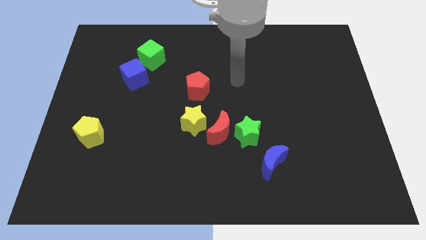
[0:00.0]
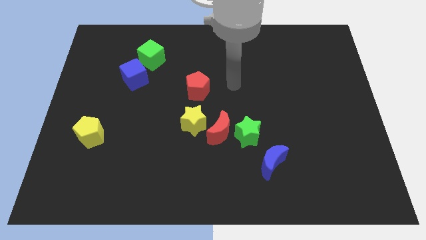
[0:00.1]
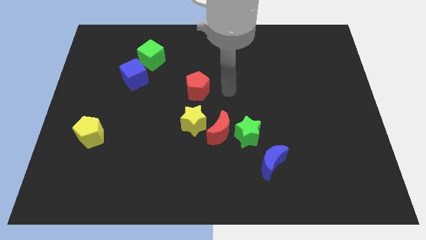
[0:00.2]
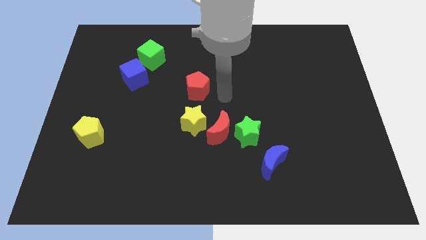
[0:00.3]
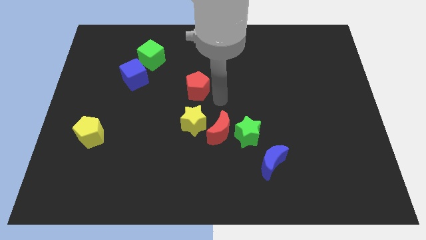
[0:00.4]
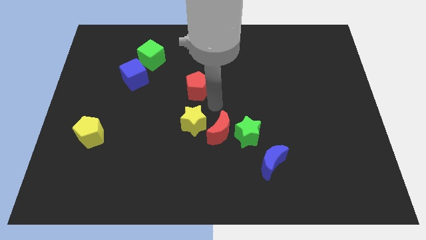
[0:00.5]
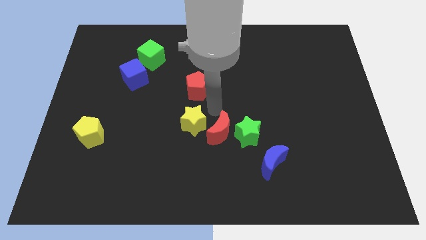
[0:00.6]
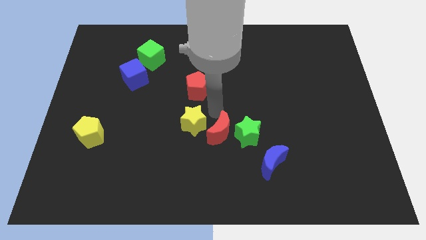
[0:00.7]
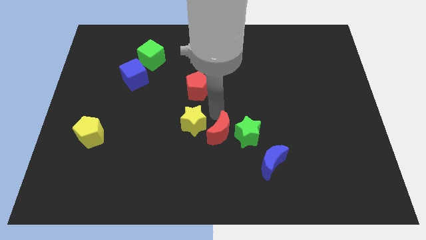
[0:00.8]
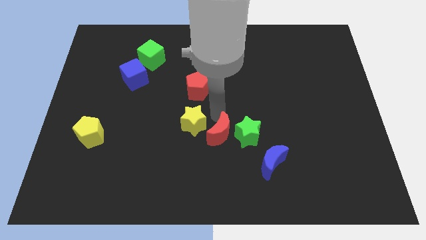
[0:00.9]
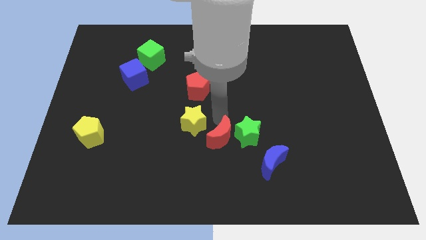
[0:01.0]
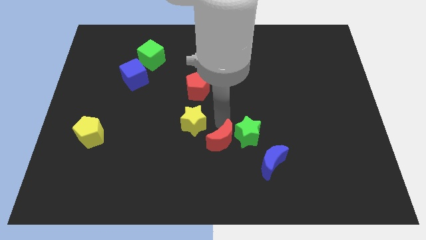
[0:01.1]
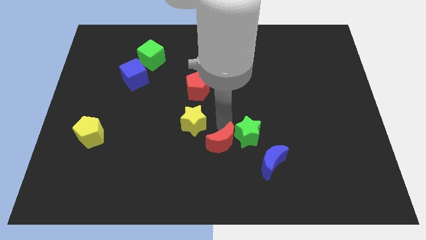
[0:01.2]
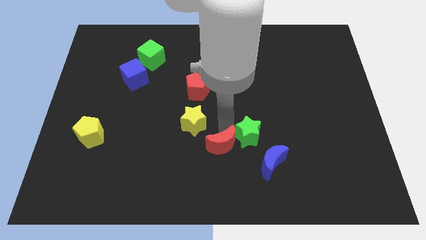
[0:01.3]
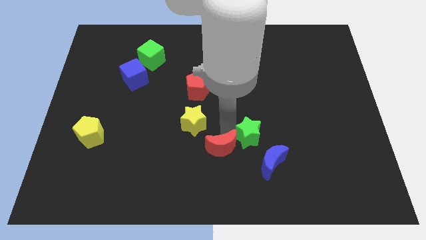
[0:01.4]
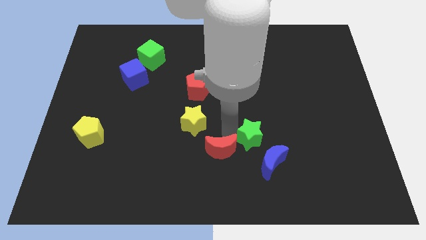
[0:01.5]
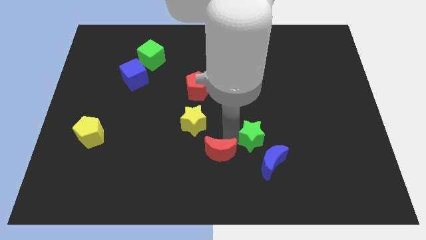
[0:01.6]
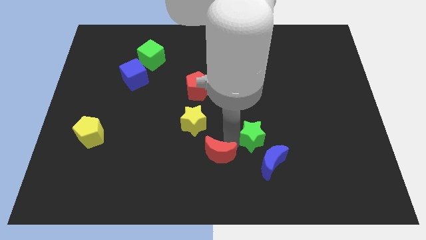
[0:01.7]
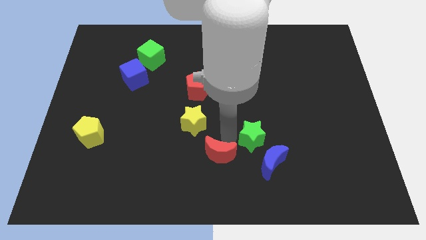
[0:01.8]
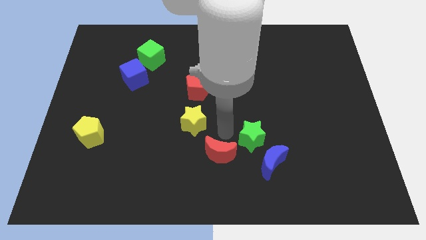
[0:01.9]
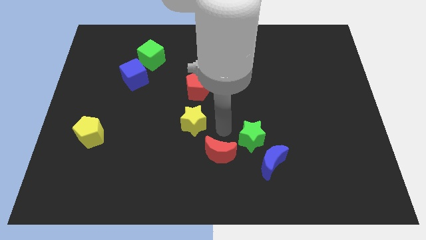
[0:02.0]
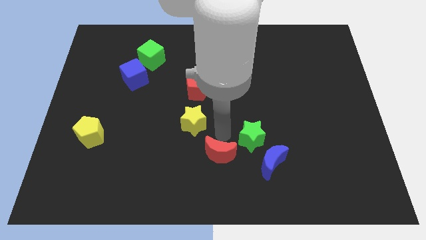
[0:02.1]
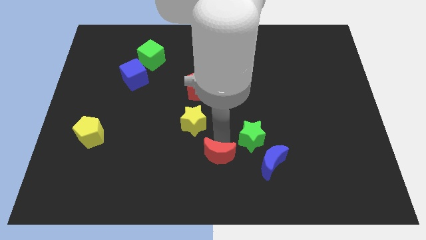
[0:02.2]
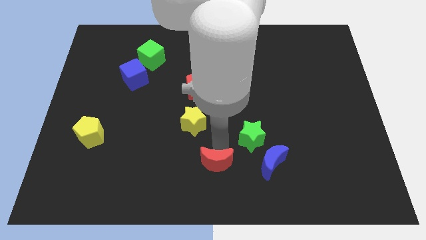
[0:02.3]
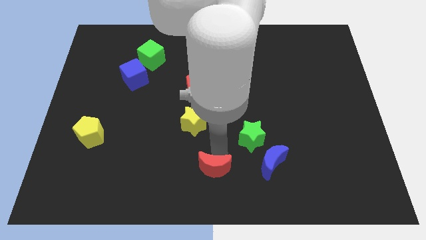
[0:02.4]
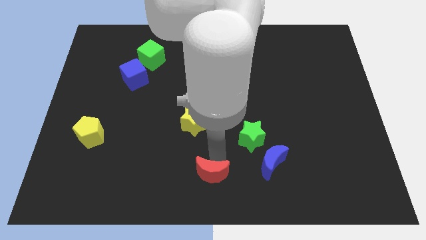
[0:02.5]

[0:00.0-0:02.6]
move the red moon away from the green star and yellow star

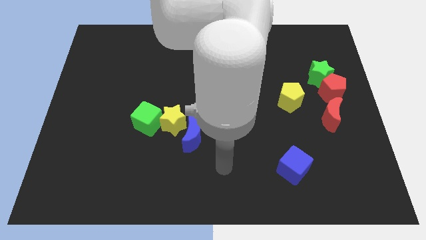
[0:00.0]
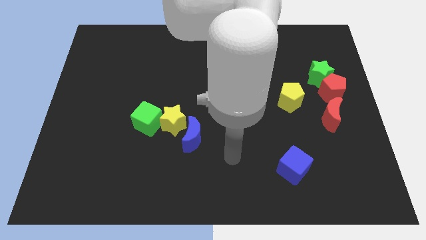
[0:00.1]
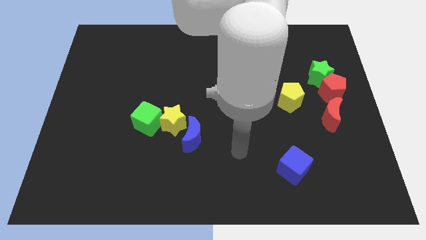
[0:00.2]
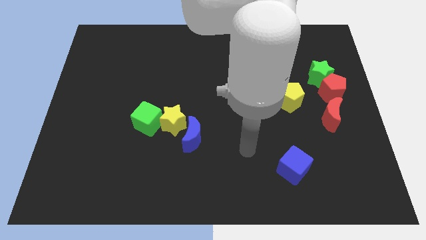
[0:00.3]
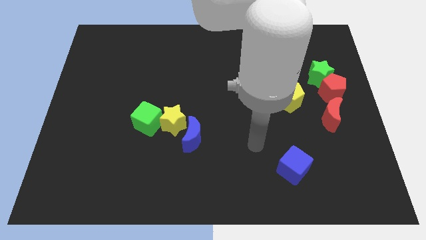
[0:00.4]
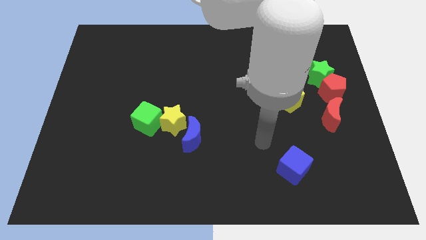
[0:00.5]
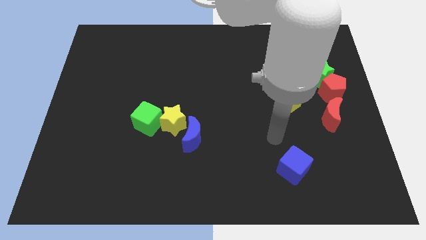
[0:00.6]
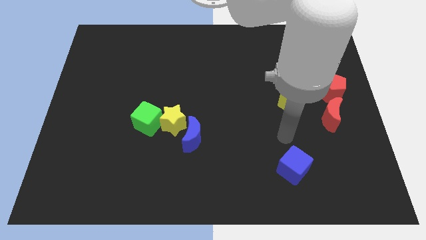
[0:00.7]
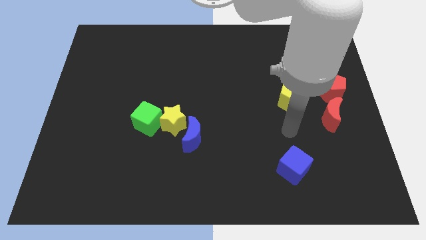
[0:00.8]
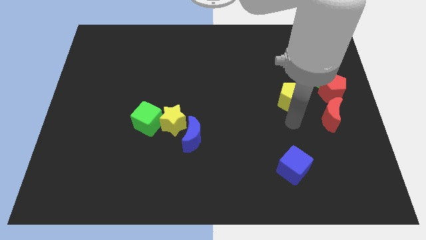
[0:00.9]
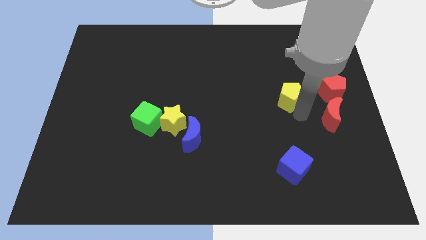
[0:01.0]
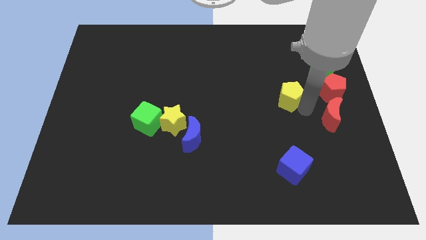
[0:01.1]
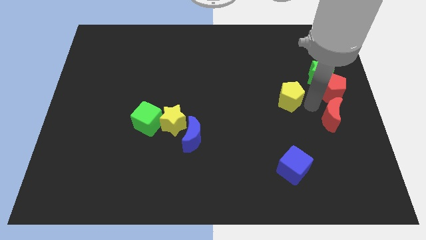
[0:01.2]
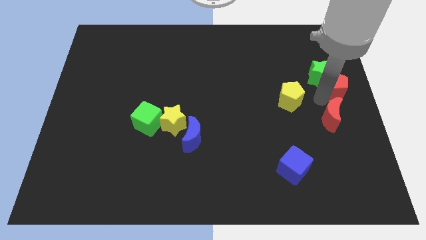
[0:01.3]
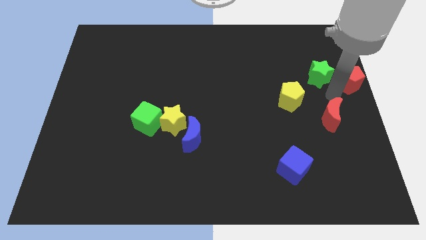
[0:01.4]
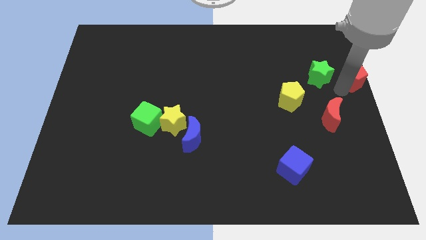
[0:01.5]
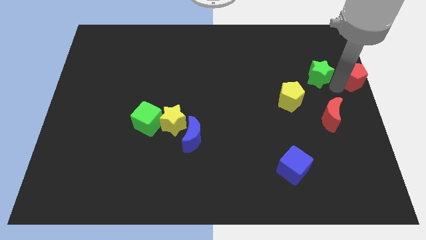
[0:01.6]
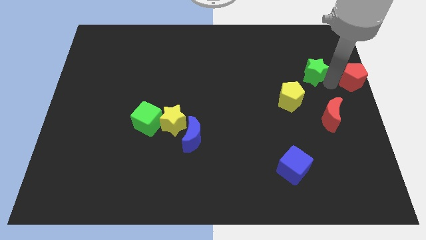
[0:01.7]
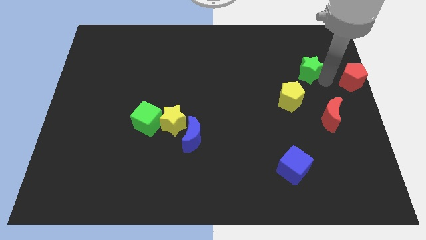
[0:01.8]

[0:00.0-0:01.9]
move the green star away from the red pentagon

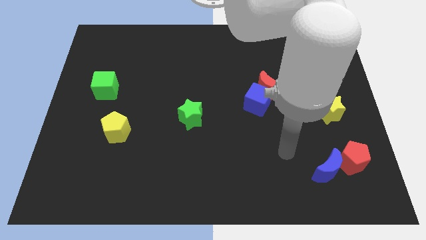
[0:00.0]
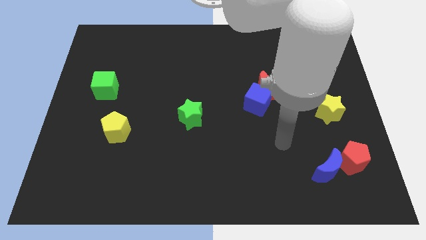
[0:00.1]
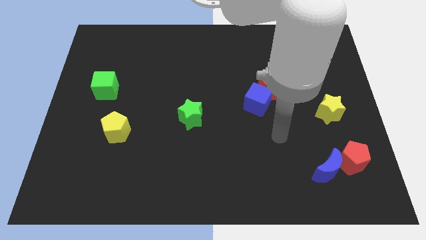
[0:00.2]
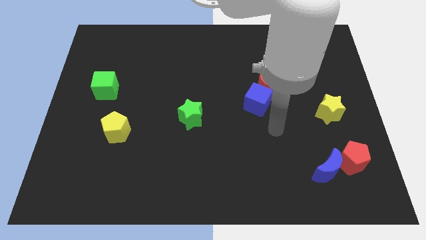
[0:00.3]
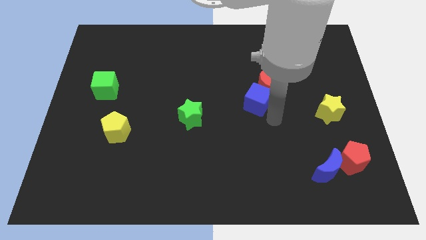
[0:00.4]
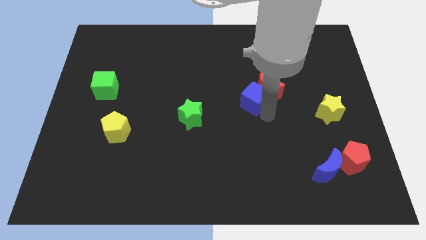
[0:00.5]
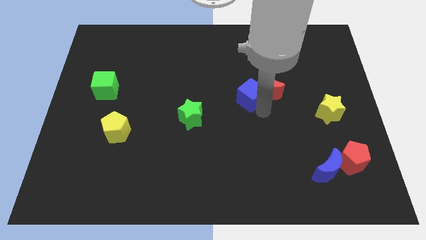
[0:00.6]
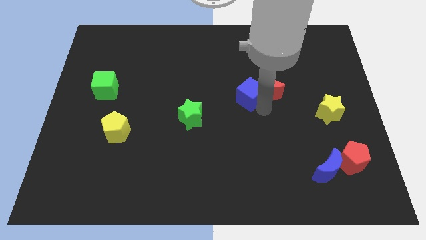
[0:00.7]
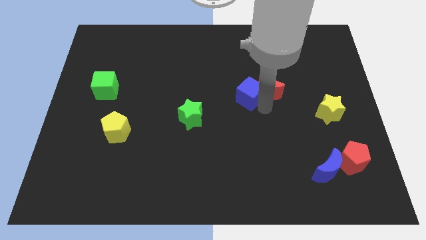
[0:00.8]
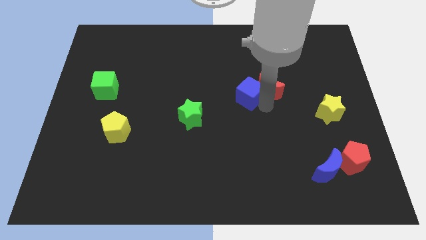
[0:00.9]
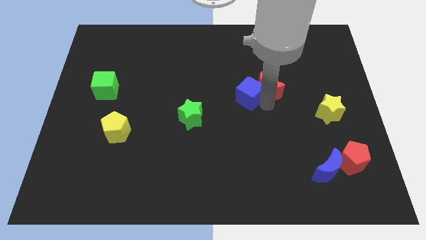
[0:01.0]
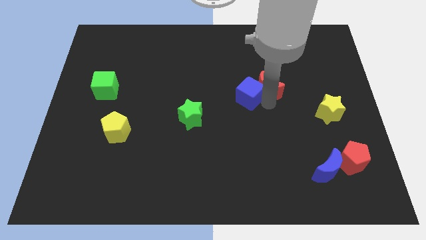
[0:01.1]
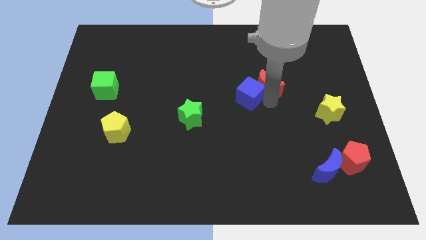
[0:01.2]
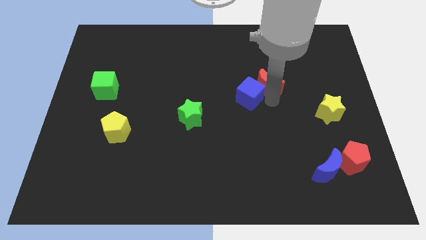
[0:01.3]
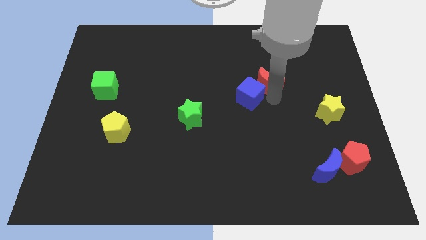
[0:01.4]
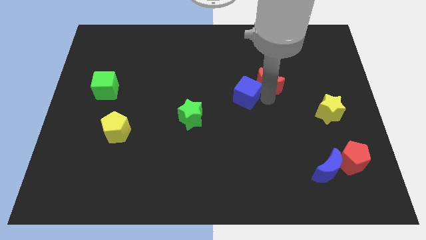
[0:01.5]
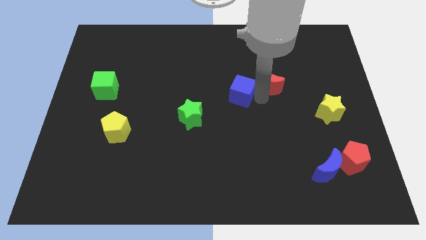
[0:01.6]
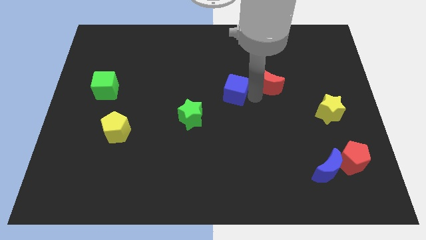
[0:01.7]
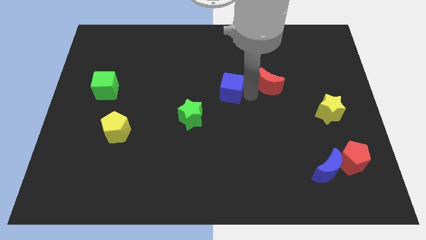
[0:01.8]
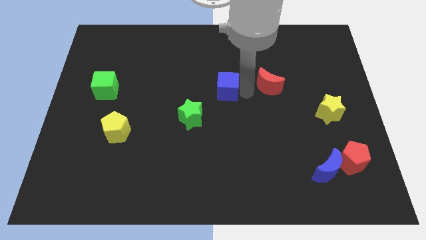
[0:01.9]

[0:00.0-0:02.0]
pull the red moon apart from the blue cube

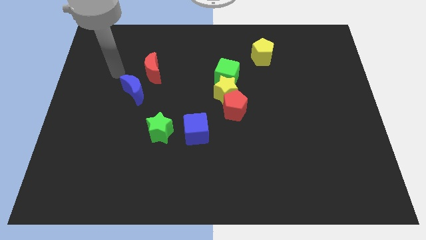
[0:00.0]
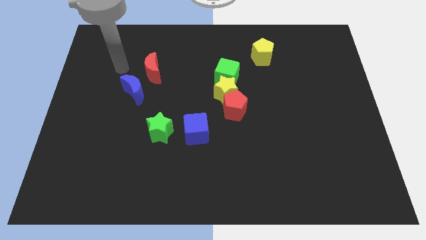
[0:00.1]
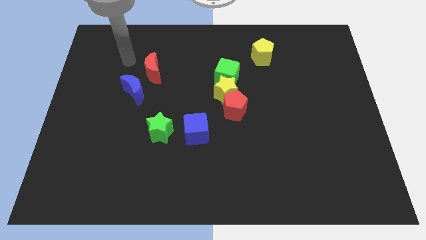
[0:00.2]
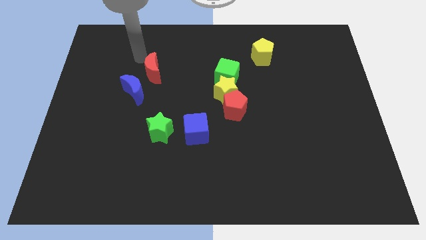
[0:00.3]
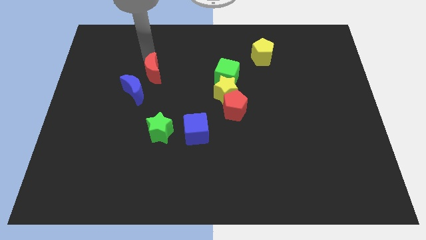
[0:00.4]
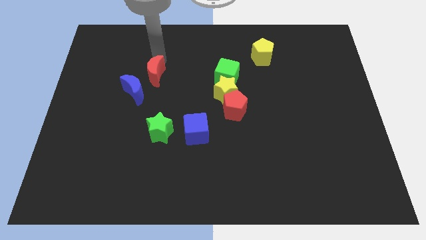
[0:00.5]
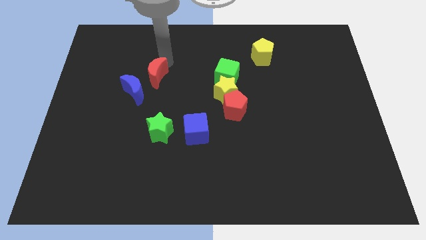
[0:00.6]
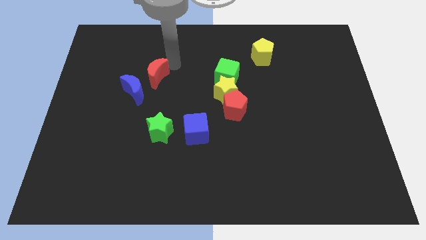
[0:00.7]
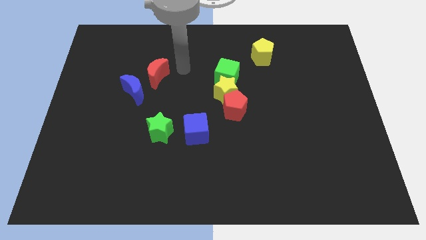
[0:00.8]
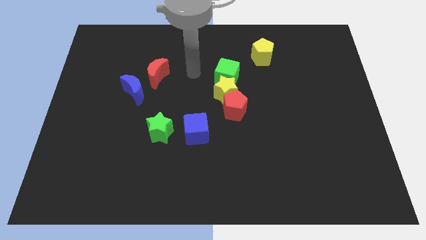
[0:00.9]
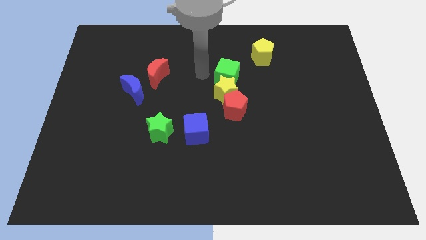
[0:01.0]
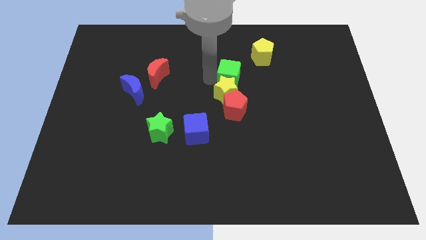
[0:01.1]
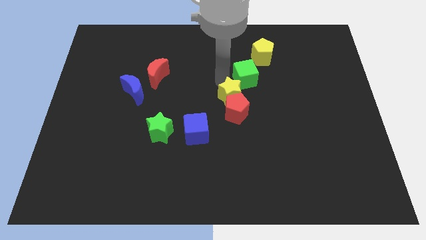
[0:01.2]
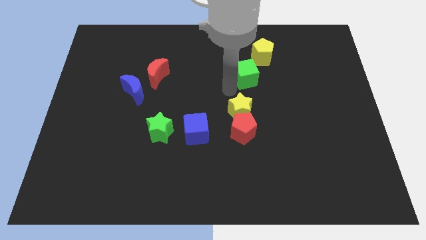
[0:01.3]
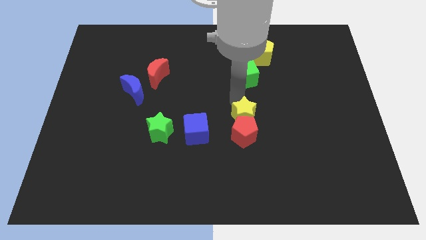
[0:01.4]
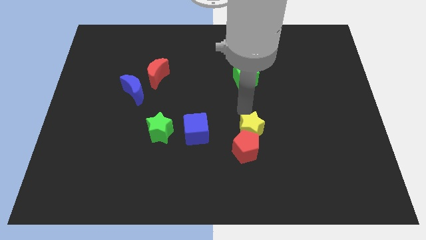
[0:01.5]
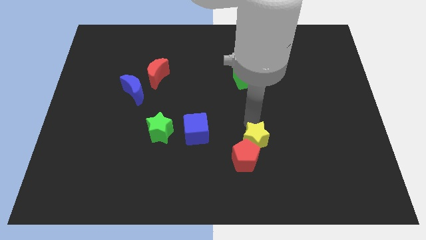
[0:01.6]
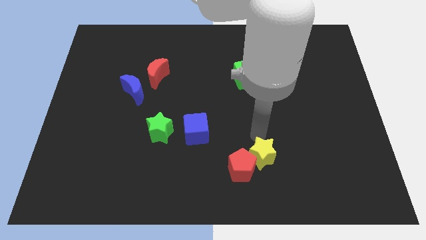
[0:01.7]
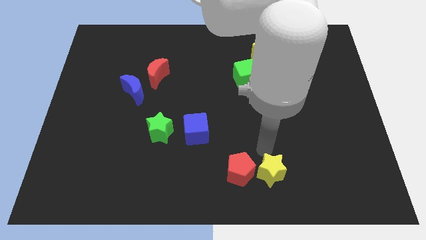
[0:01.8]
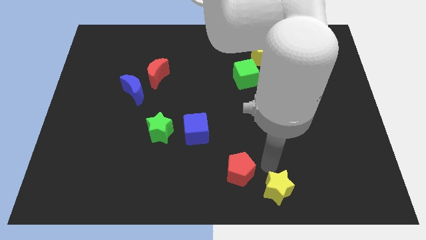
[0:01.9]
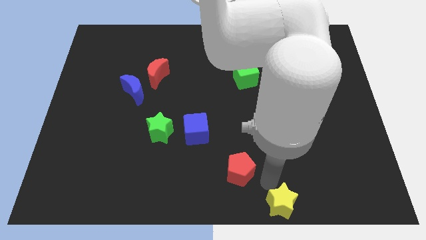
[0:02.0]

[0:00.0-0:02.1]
move the red pentagon away from the yellow star

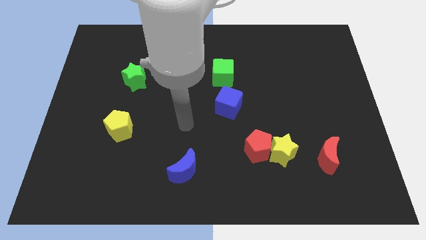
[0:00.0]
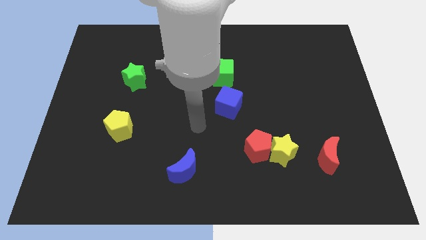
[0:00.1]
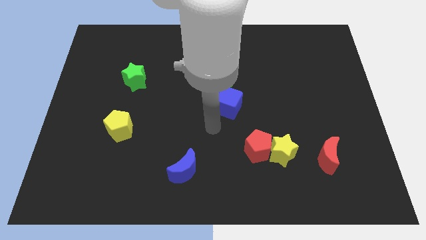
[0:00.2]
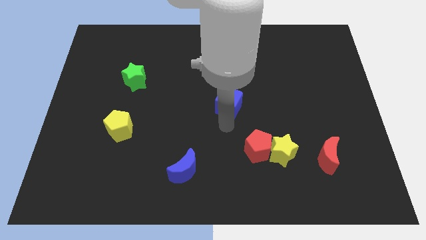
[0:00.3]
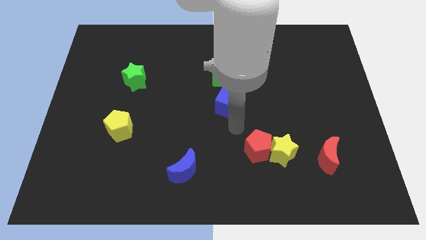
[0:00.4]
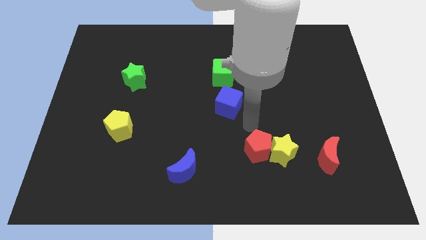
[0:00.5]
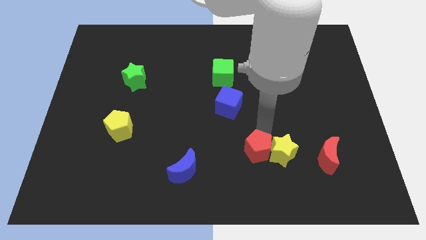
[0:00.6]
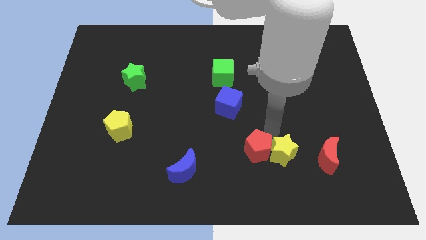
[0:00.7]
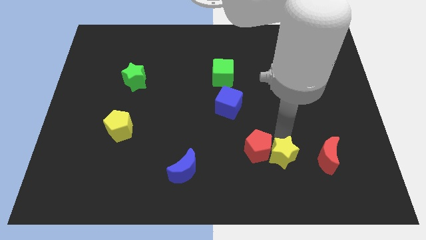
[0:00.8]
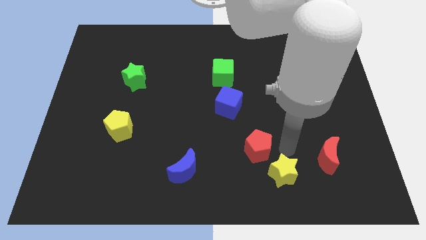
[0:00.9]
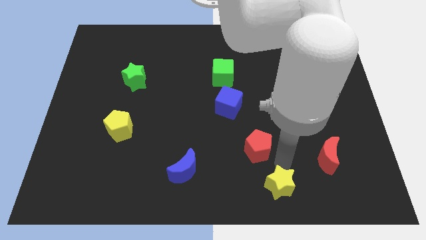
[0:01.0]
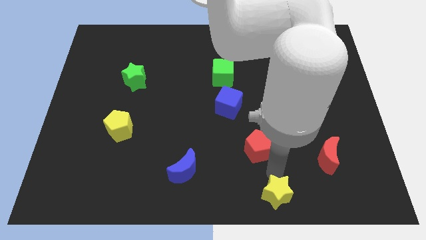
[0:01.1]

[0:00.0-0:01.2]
pull the red pentagon apart from the yellow star
